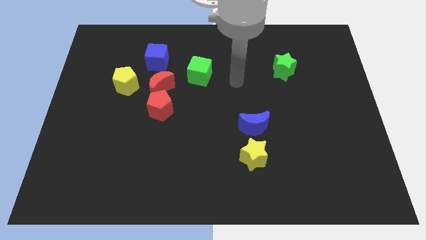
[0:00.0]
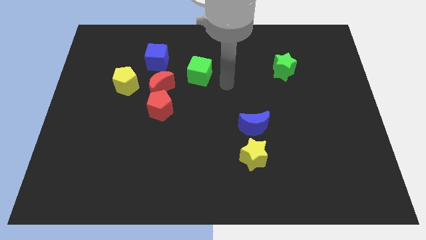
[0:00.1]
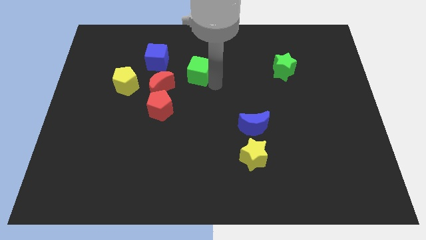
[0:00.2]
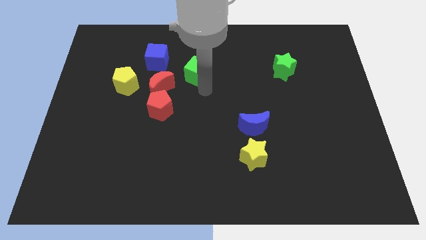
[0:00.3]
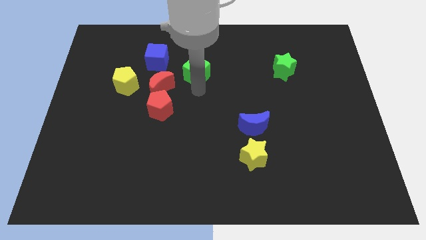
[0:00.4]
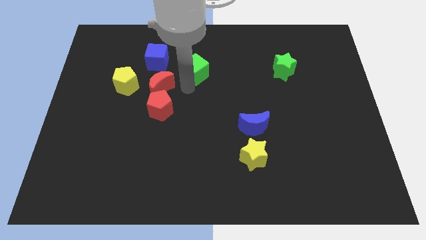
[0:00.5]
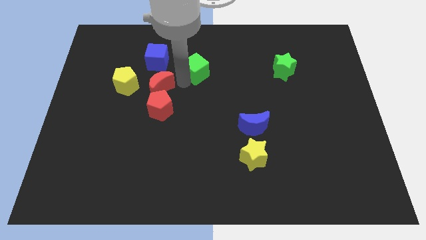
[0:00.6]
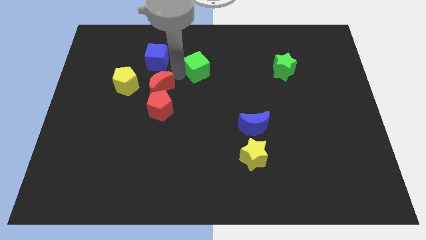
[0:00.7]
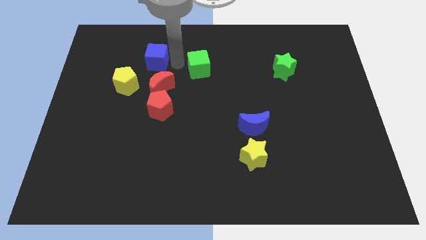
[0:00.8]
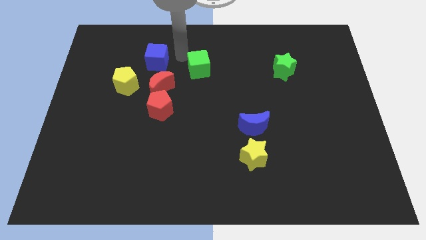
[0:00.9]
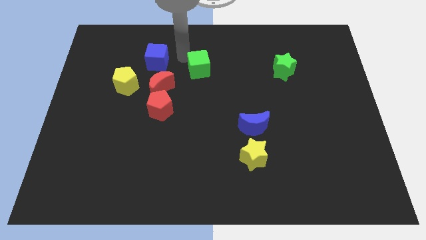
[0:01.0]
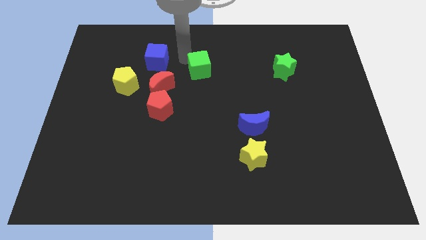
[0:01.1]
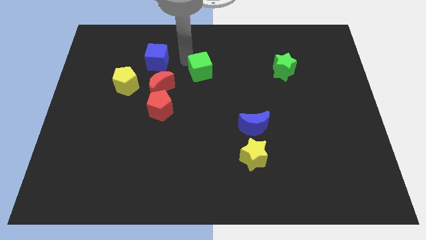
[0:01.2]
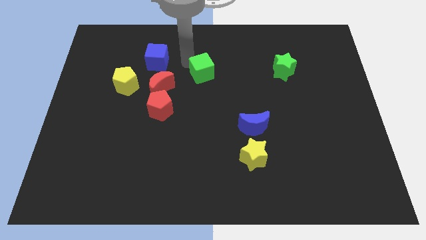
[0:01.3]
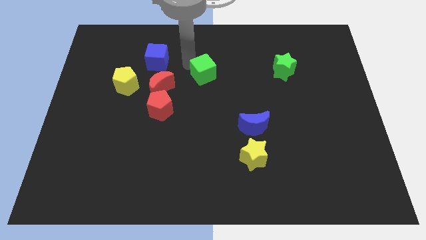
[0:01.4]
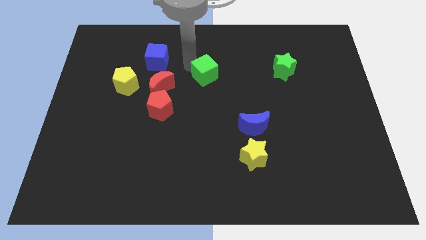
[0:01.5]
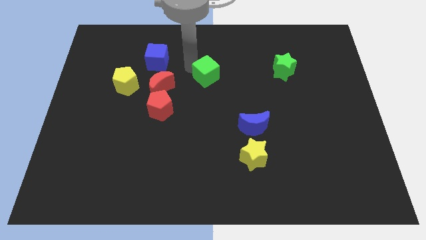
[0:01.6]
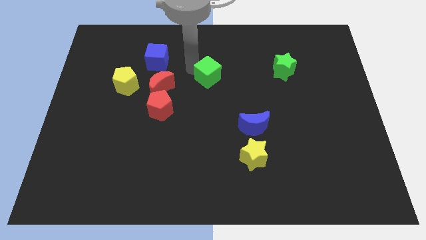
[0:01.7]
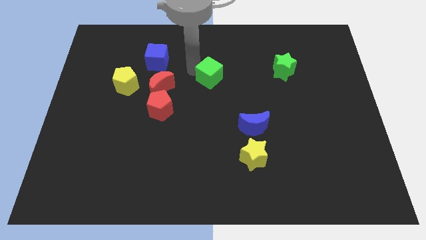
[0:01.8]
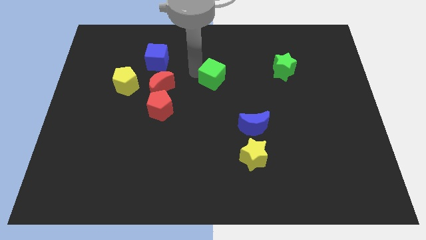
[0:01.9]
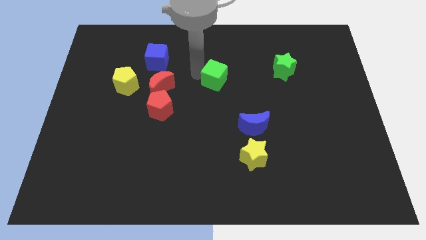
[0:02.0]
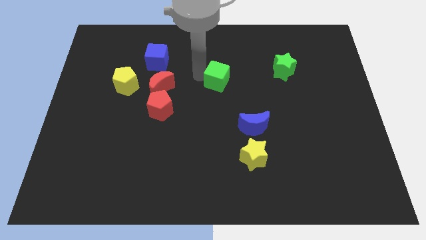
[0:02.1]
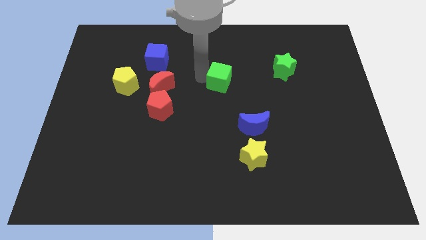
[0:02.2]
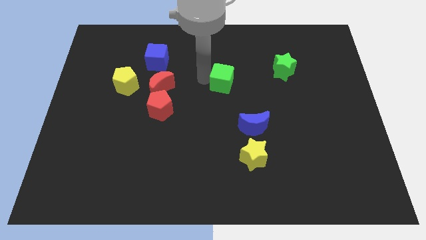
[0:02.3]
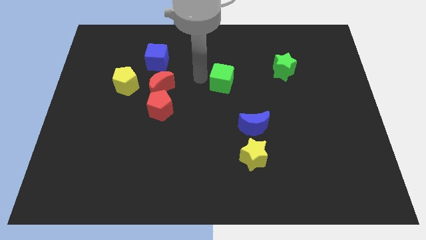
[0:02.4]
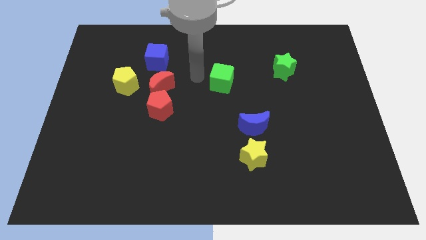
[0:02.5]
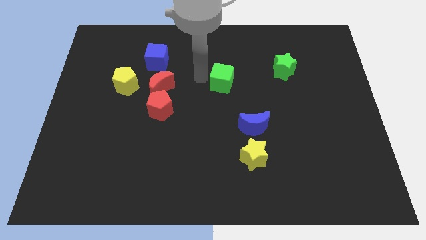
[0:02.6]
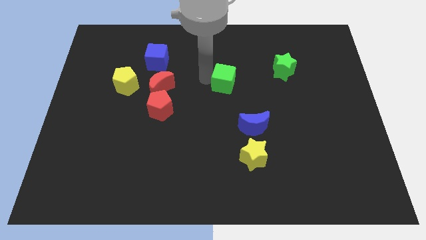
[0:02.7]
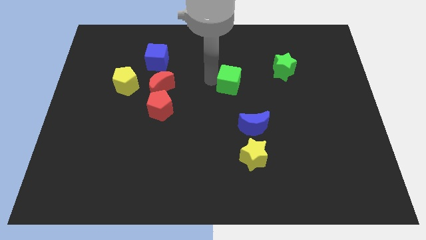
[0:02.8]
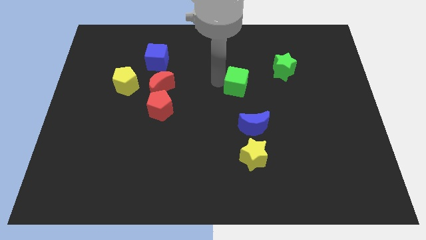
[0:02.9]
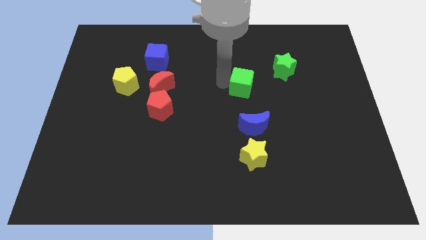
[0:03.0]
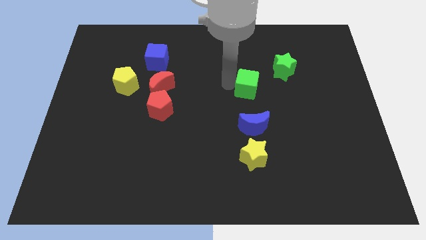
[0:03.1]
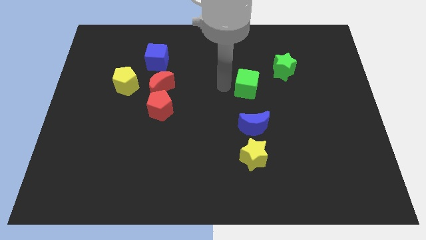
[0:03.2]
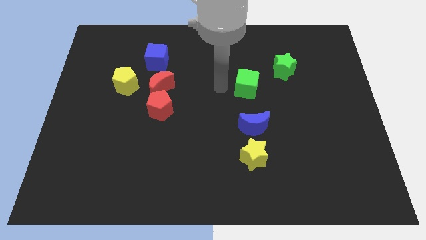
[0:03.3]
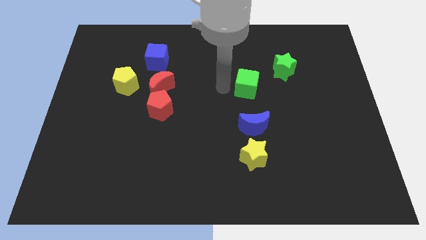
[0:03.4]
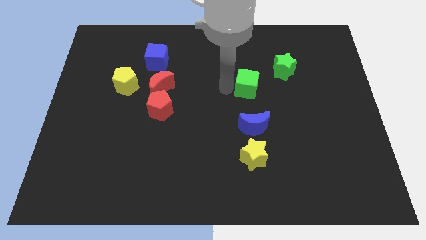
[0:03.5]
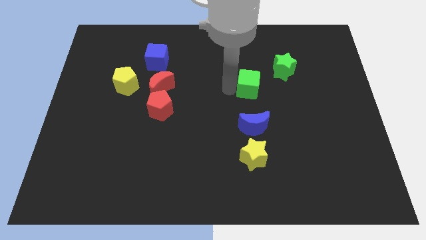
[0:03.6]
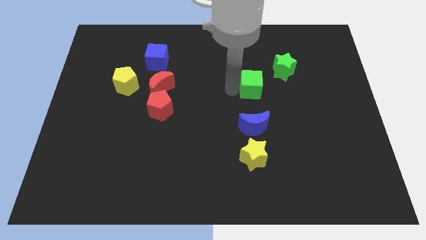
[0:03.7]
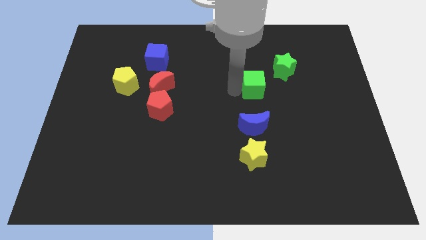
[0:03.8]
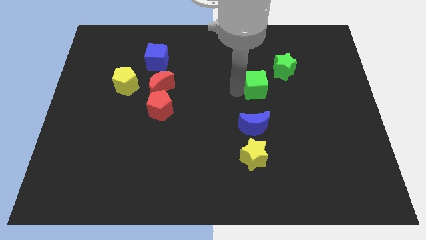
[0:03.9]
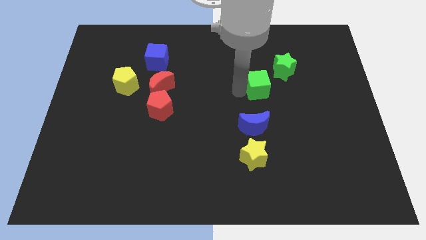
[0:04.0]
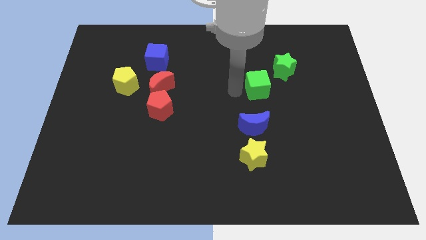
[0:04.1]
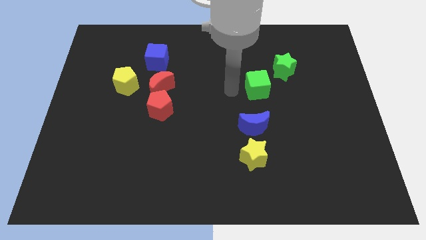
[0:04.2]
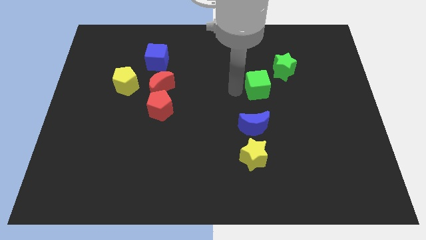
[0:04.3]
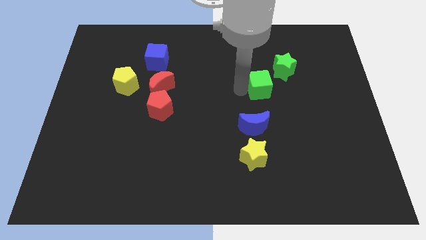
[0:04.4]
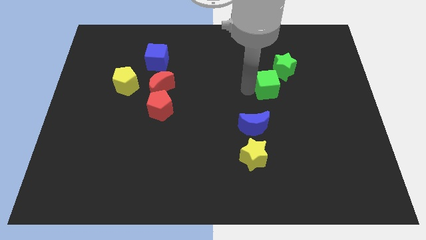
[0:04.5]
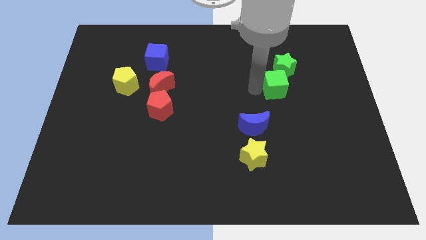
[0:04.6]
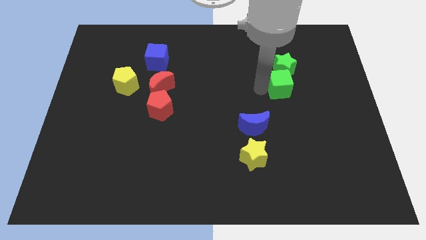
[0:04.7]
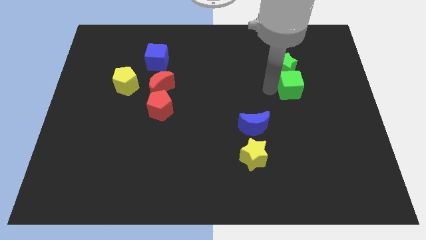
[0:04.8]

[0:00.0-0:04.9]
move the green cube right

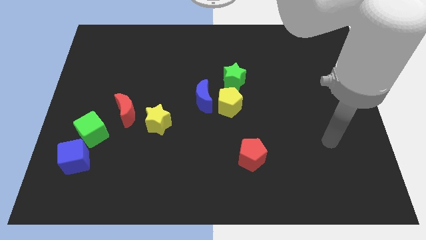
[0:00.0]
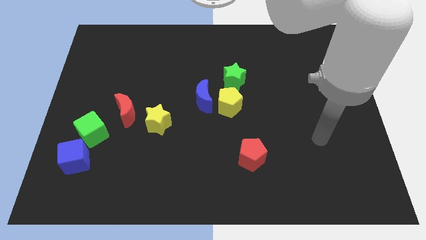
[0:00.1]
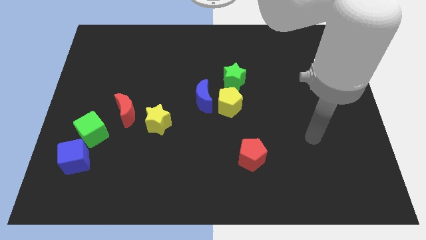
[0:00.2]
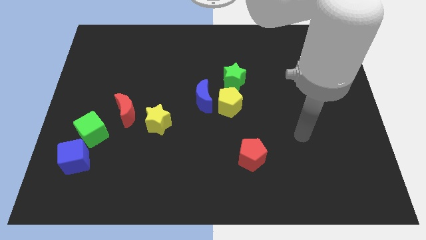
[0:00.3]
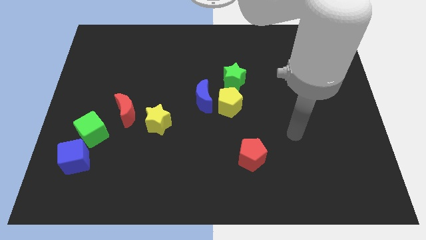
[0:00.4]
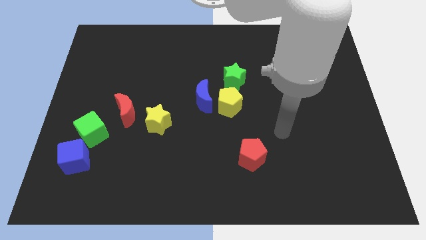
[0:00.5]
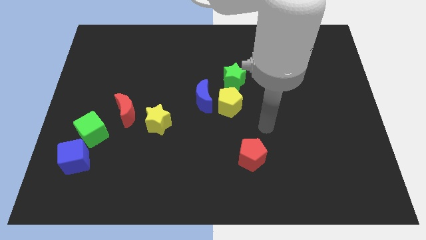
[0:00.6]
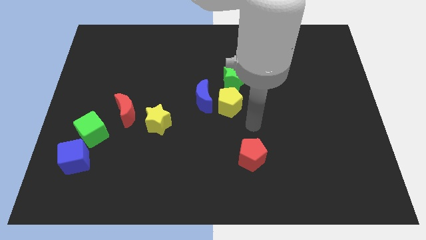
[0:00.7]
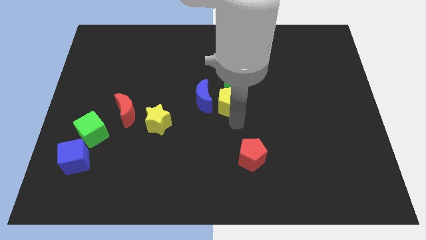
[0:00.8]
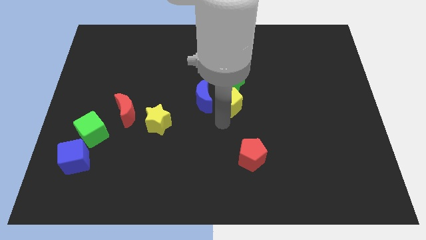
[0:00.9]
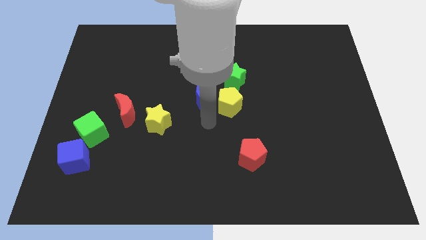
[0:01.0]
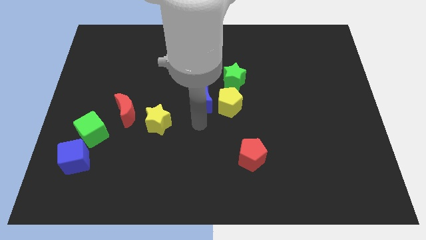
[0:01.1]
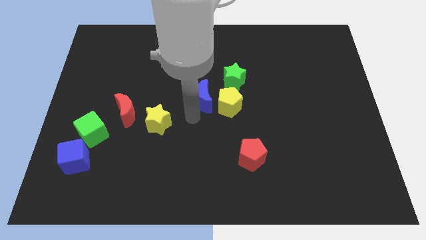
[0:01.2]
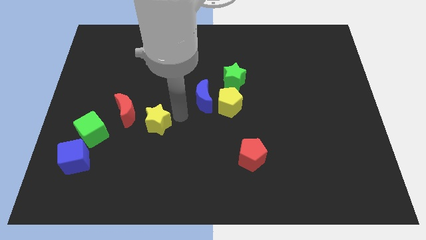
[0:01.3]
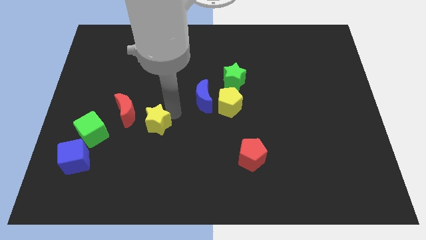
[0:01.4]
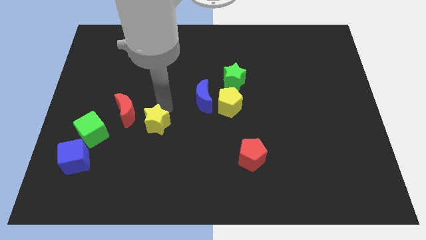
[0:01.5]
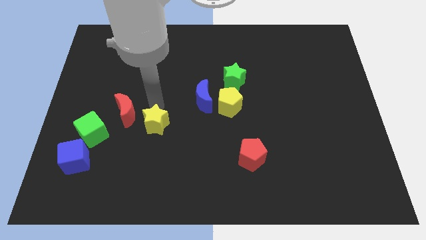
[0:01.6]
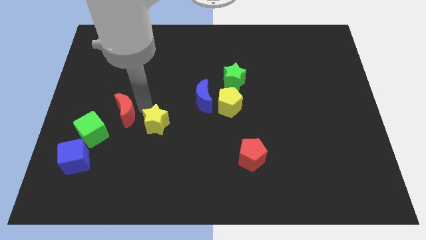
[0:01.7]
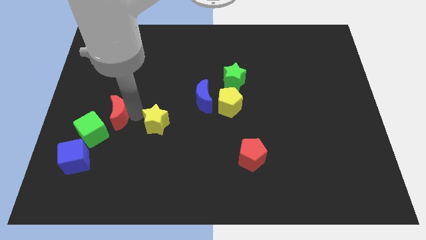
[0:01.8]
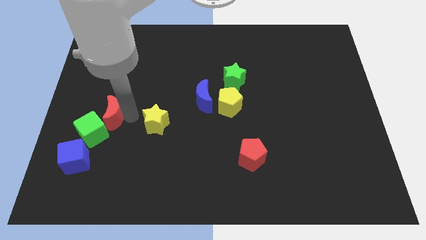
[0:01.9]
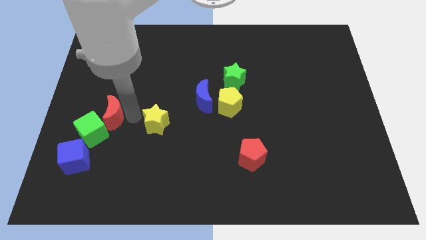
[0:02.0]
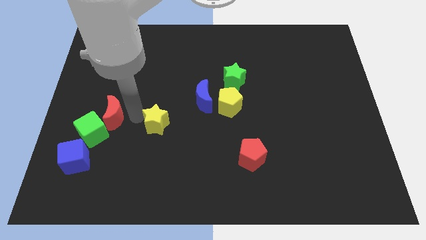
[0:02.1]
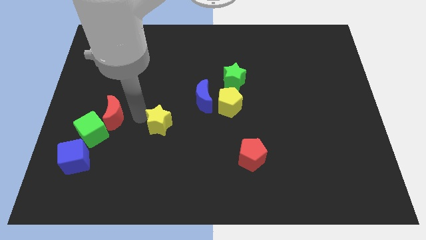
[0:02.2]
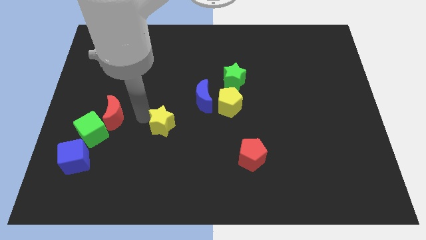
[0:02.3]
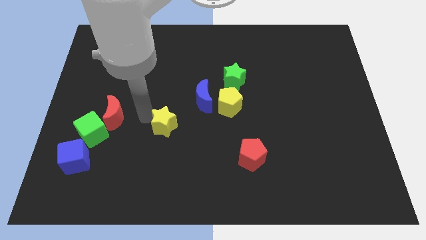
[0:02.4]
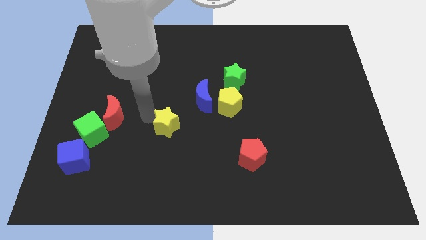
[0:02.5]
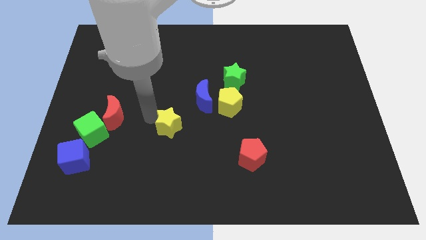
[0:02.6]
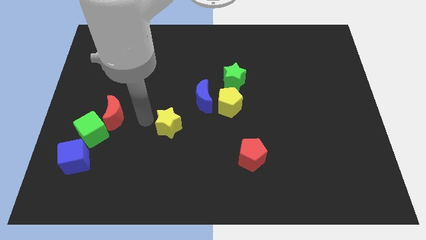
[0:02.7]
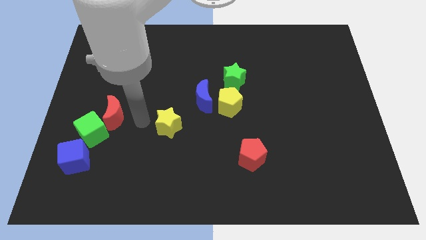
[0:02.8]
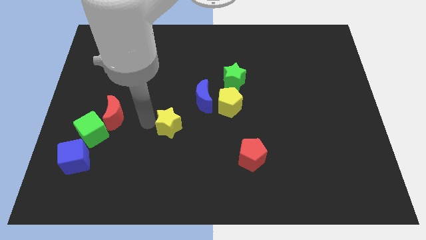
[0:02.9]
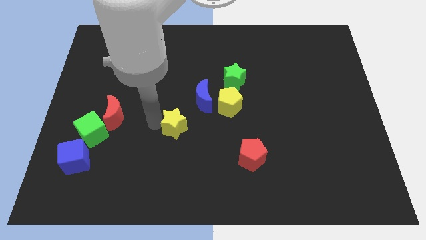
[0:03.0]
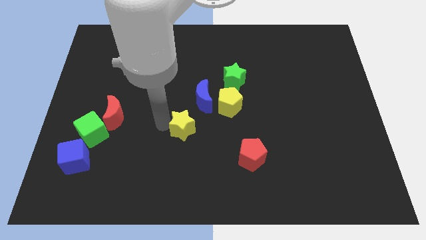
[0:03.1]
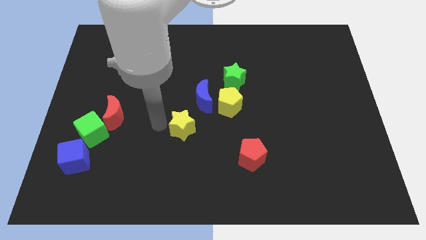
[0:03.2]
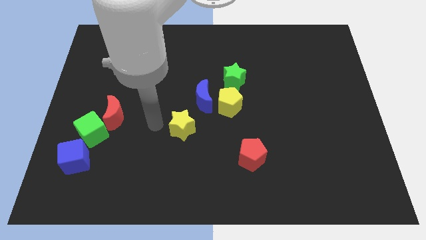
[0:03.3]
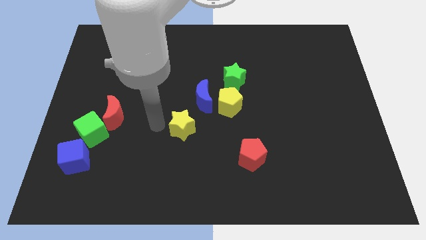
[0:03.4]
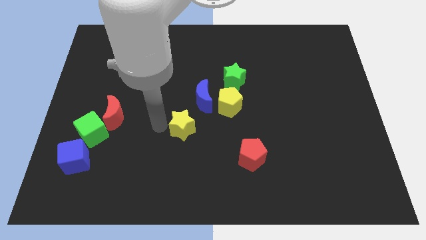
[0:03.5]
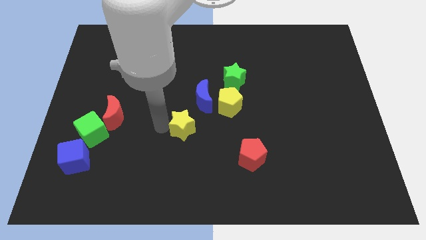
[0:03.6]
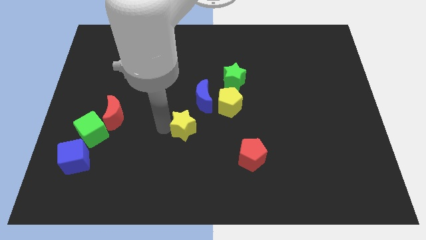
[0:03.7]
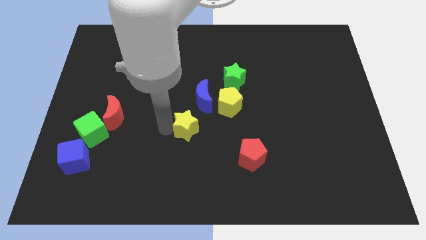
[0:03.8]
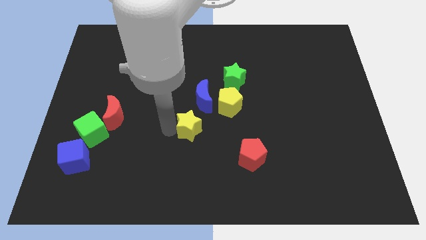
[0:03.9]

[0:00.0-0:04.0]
slightly slide the yellow star to the right
